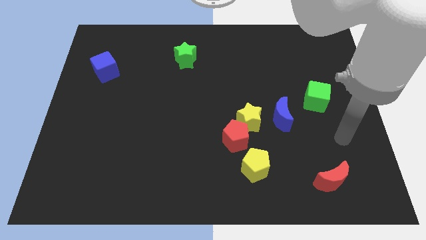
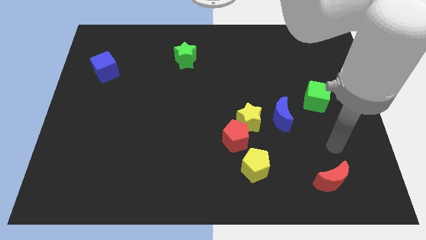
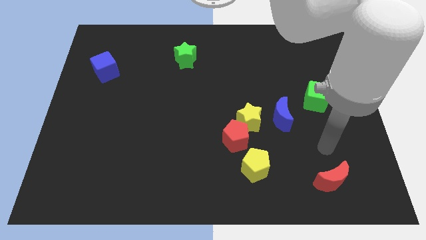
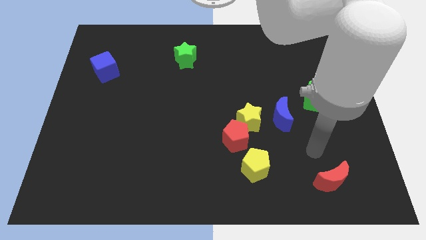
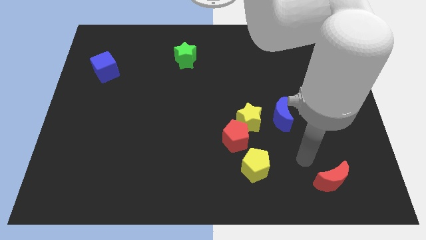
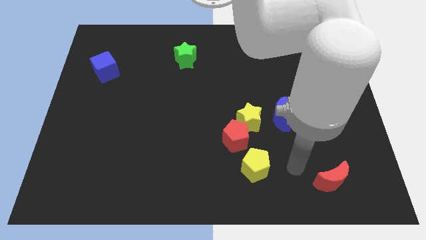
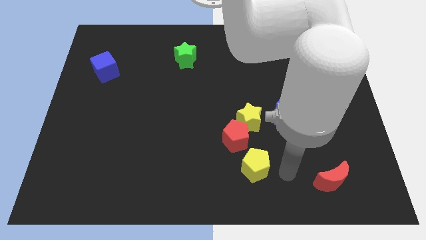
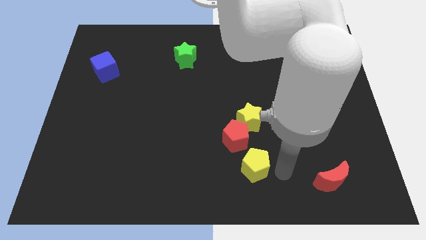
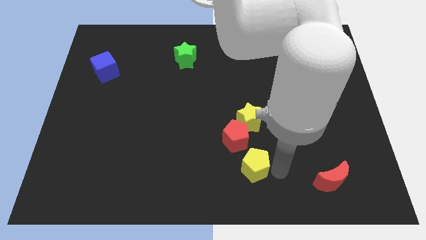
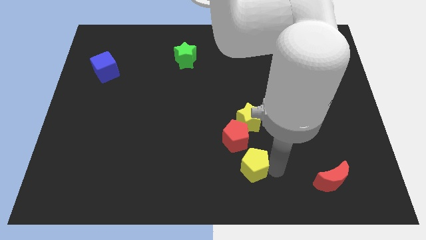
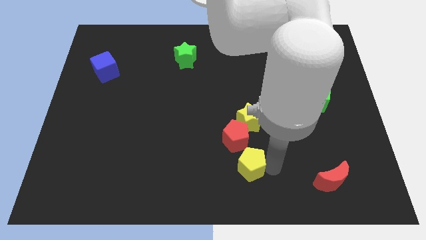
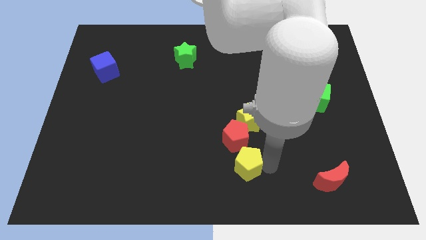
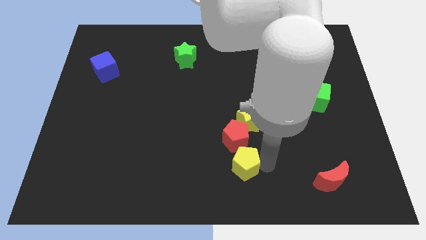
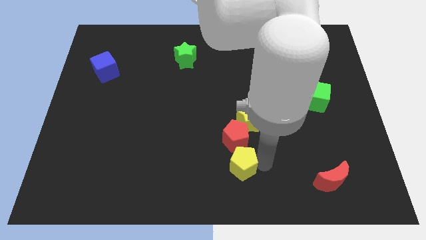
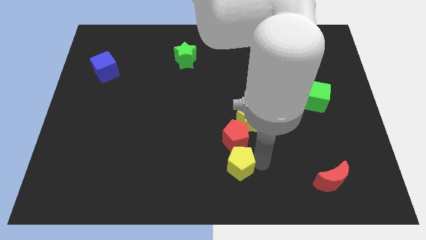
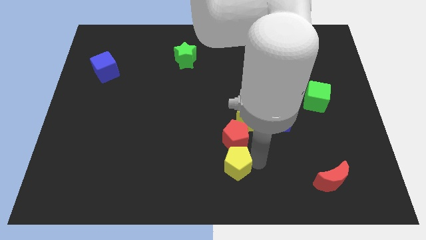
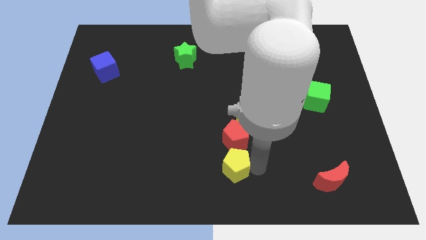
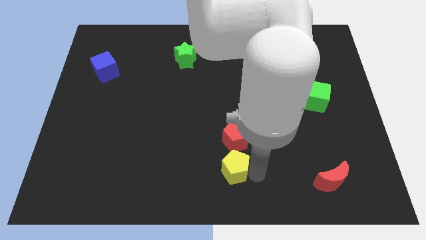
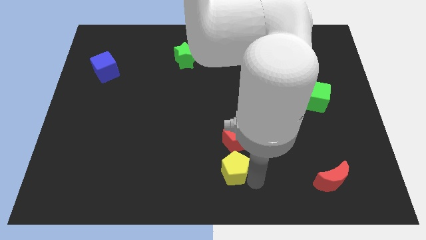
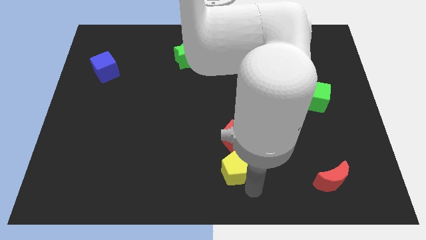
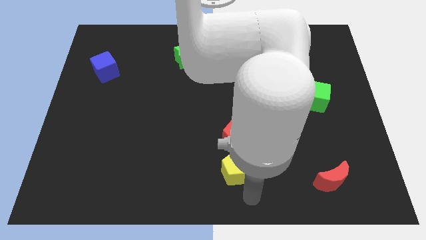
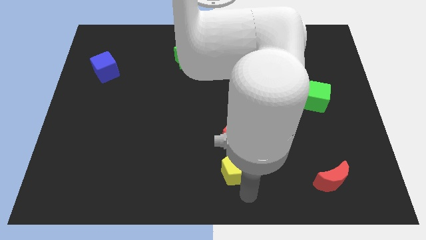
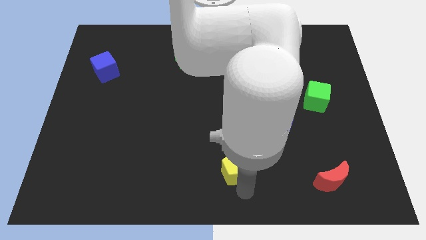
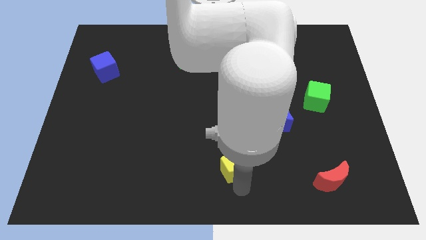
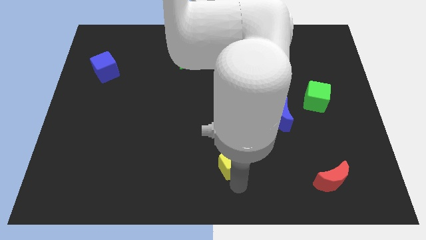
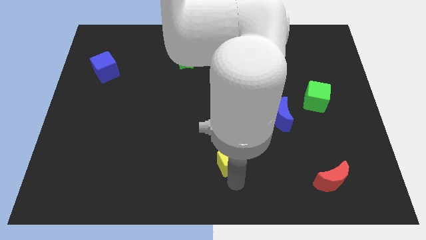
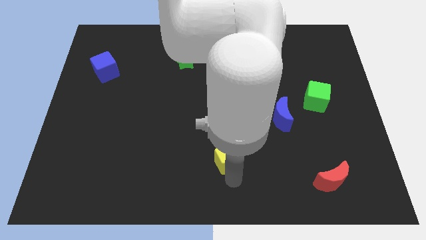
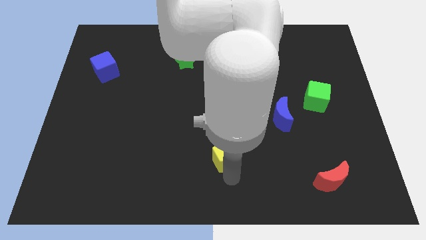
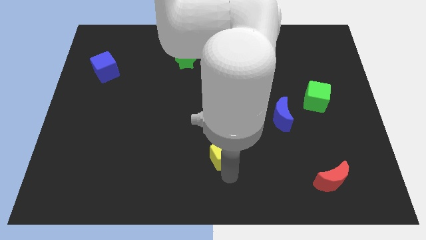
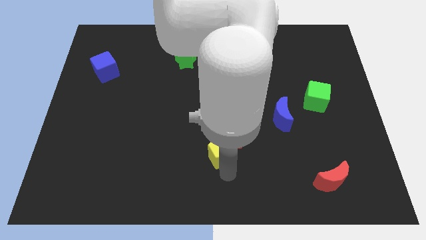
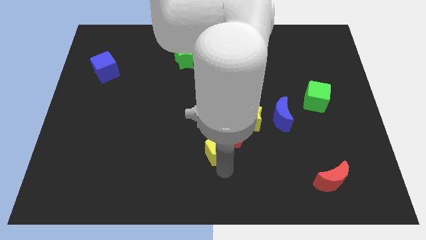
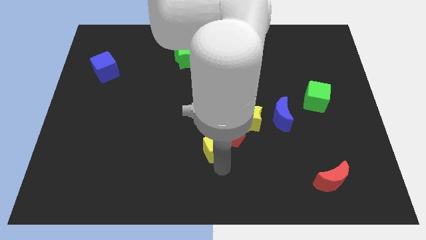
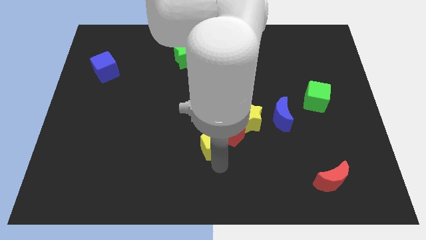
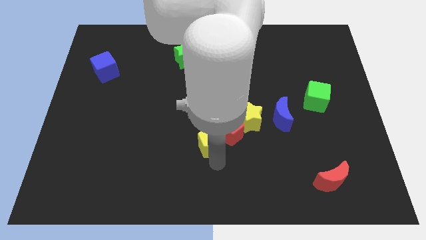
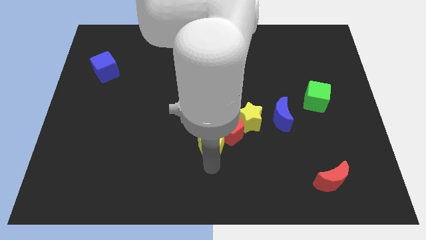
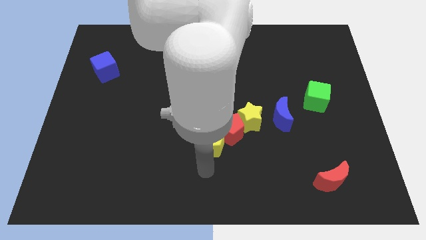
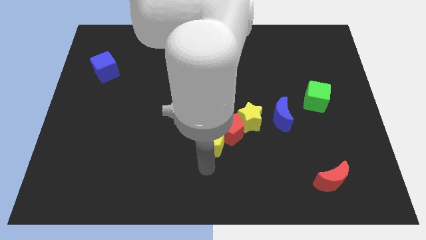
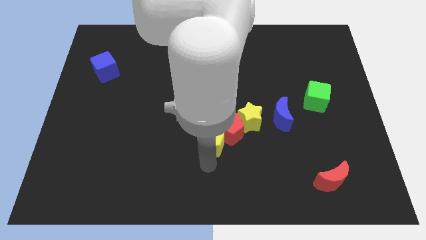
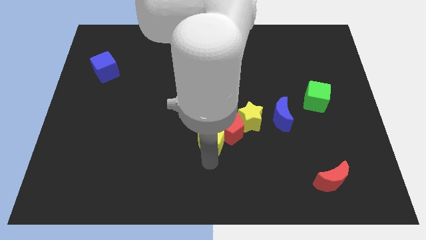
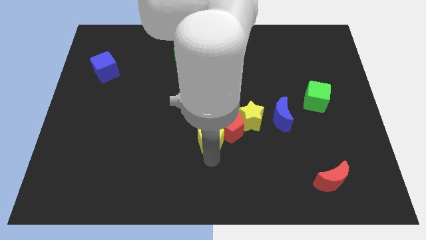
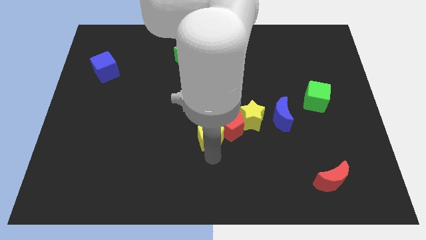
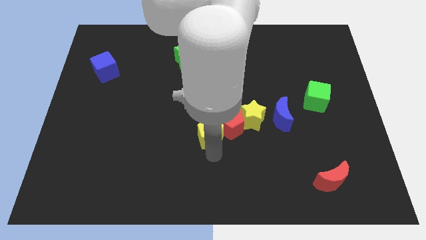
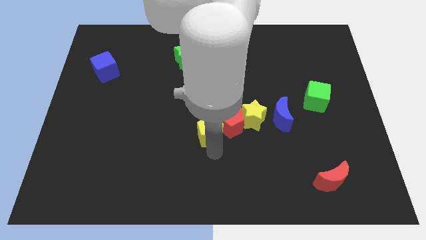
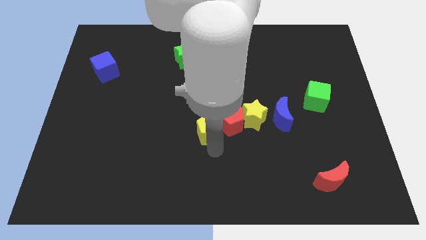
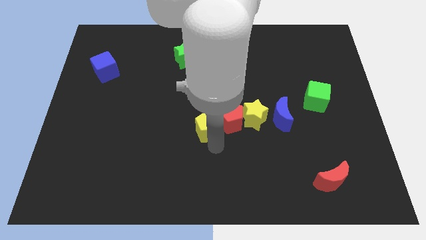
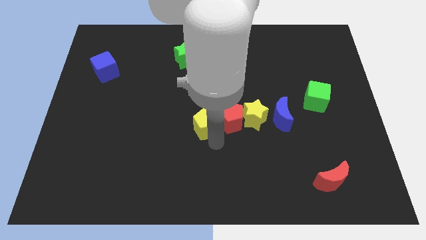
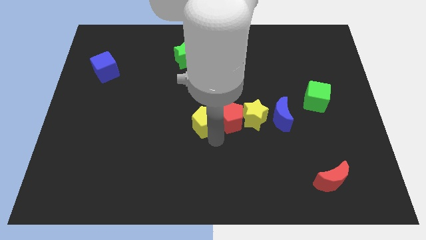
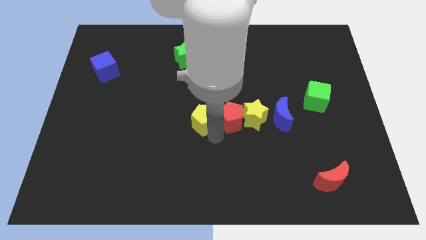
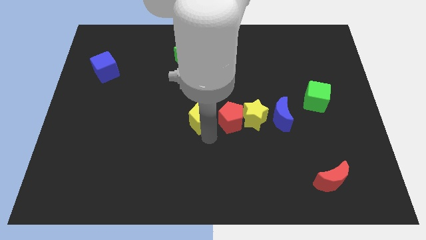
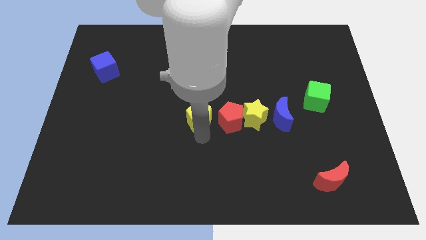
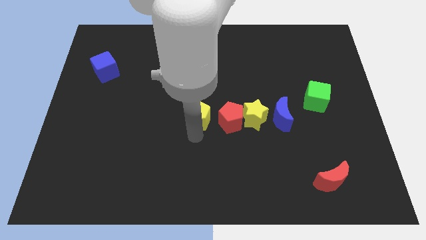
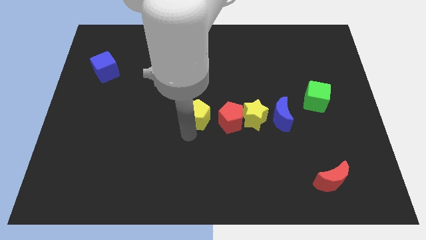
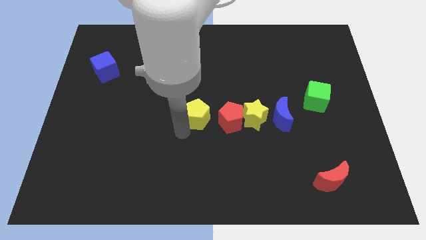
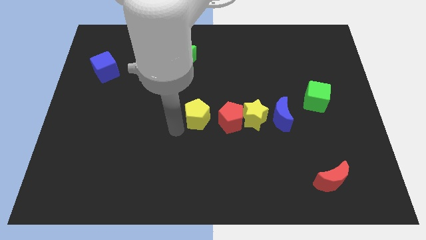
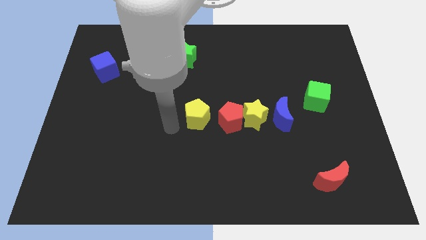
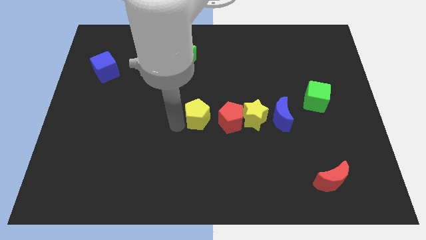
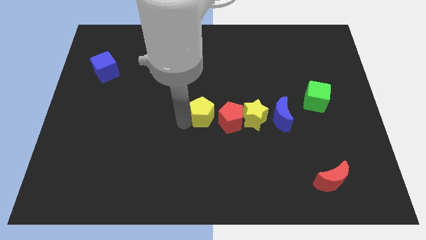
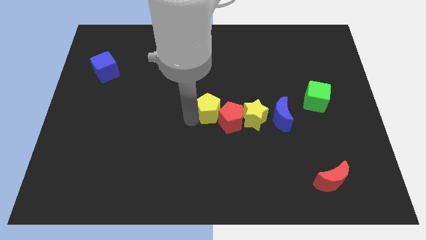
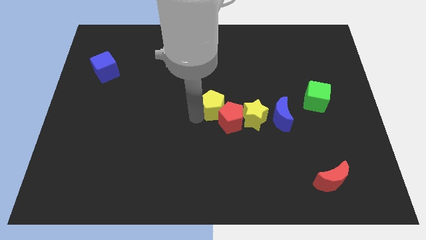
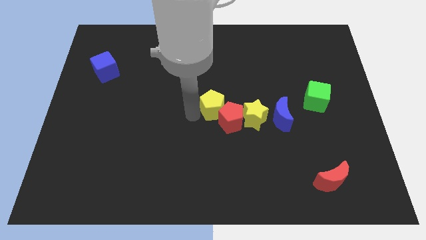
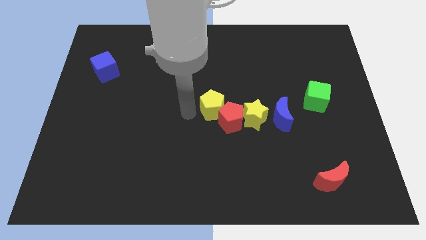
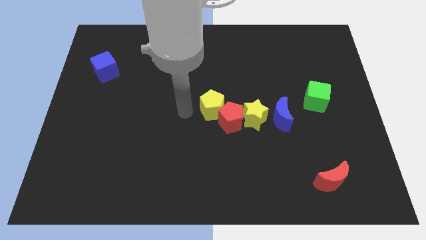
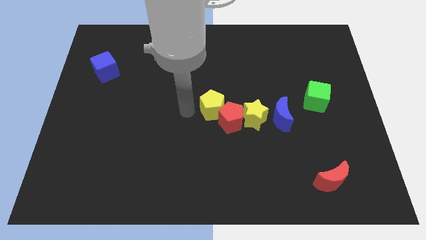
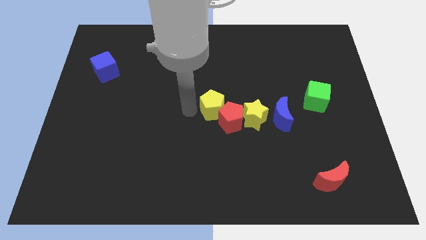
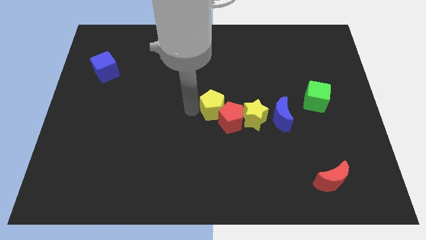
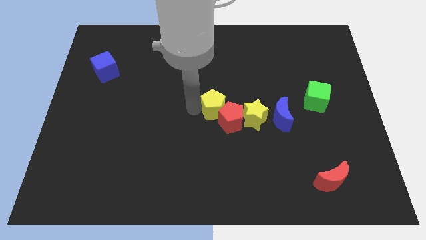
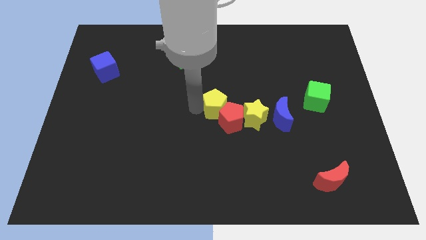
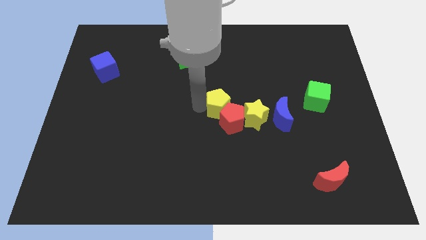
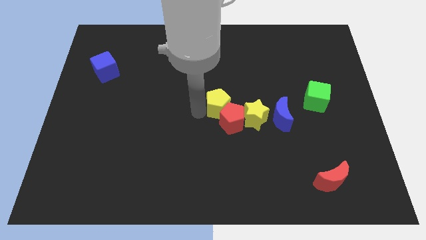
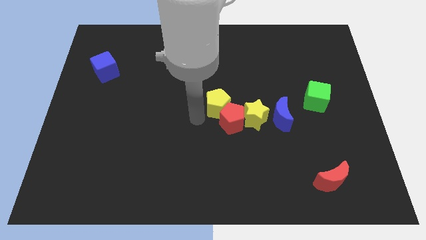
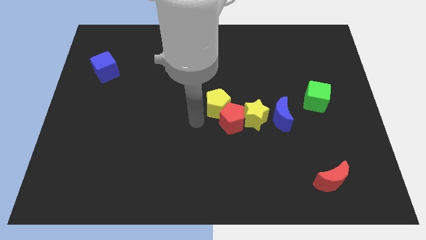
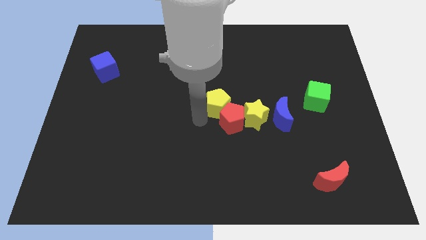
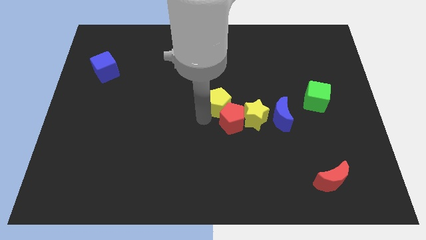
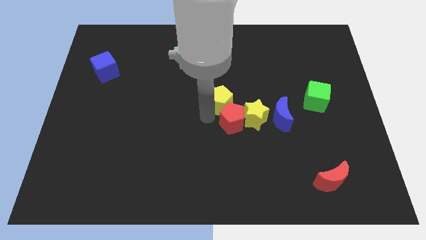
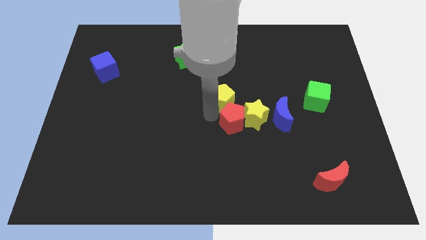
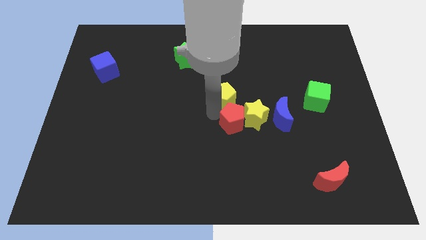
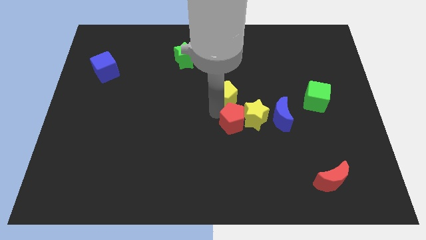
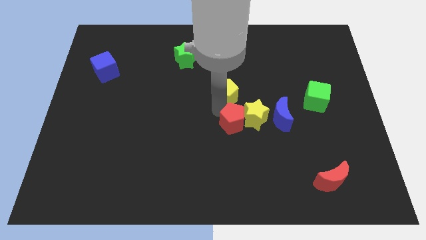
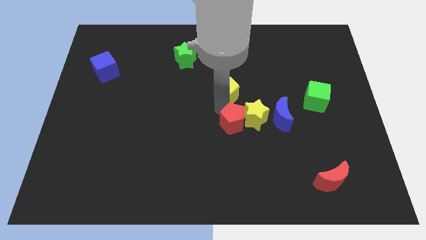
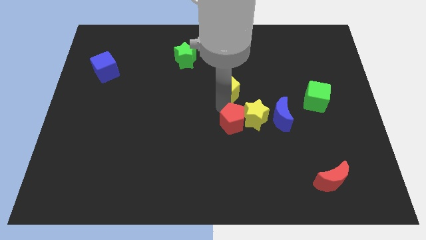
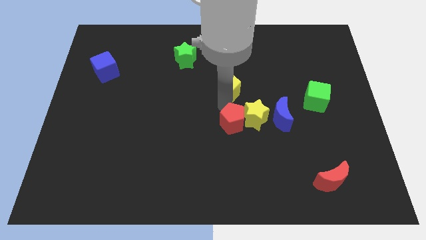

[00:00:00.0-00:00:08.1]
move the yellow pentagon upwards
